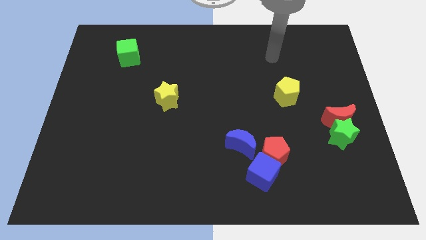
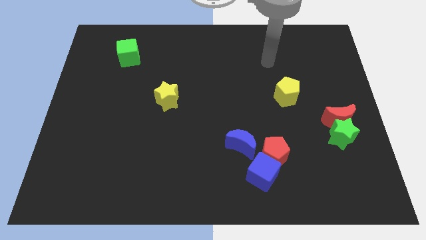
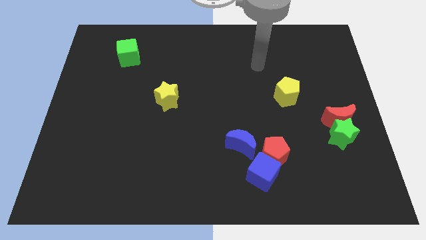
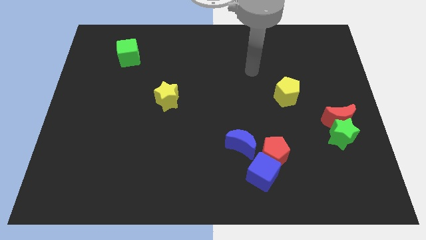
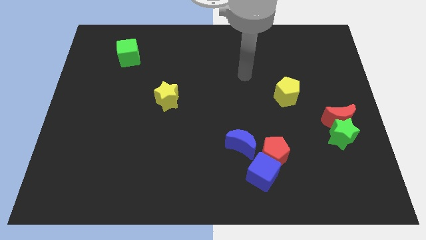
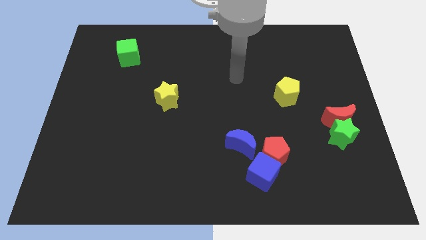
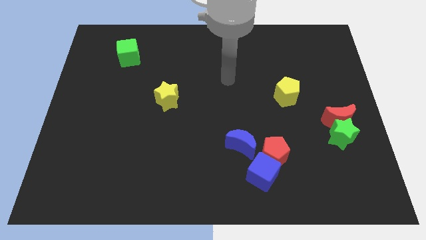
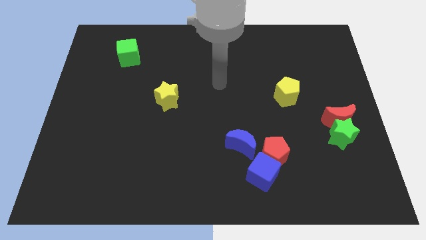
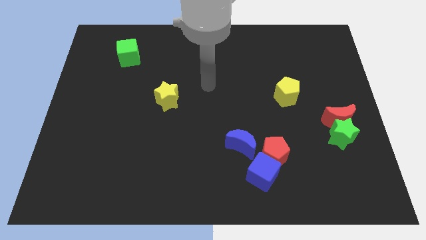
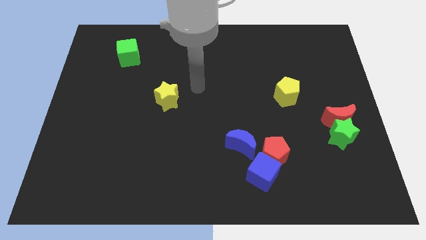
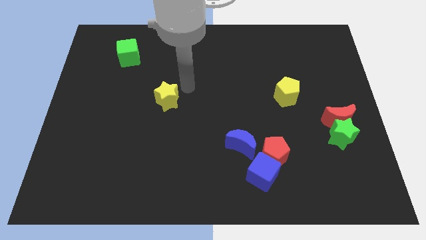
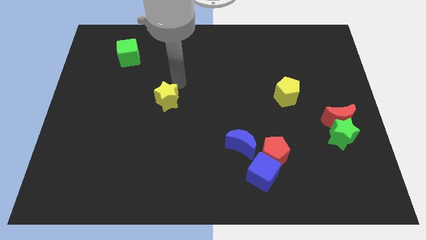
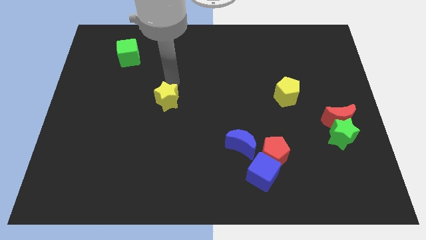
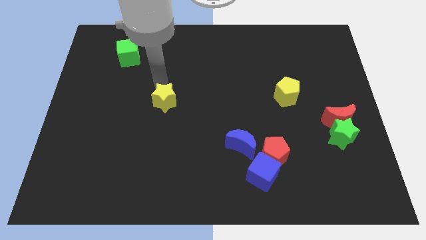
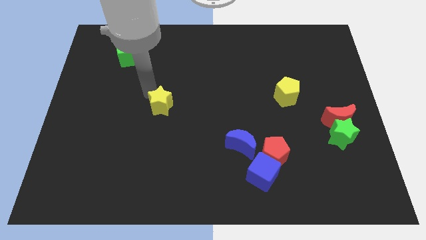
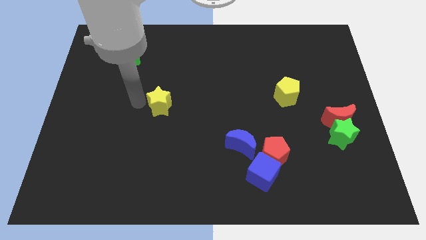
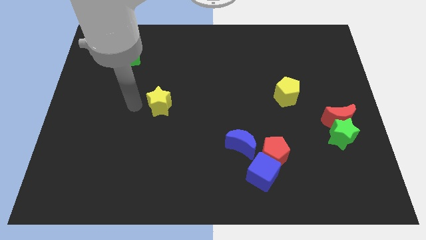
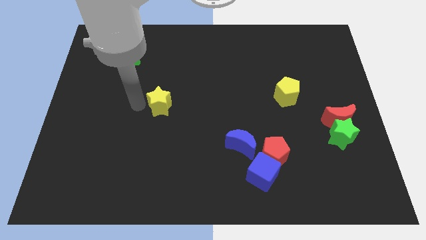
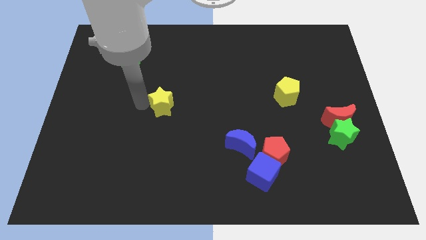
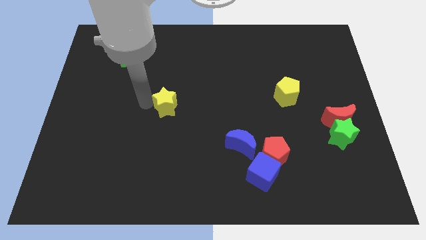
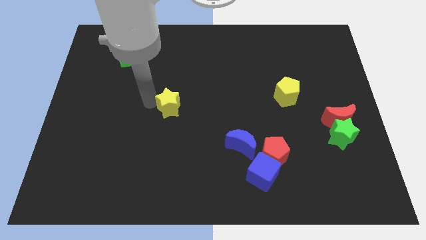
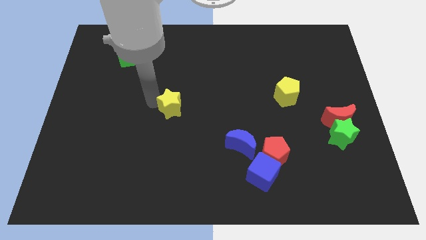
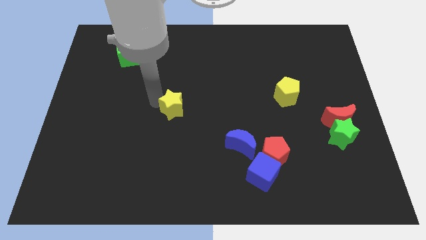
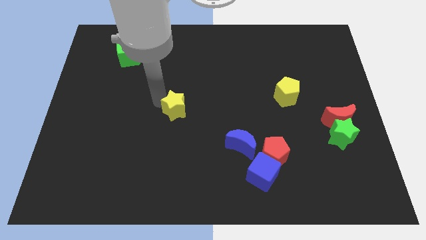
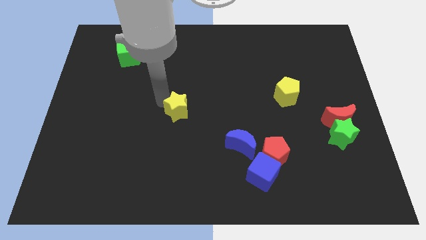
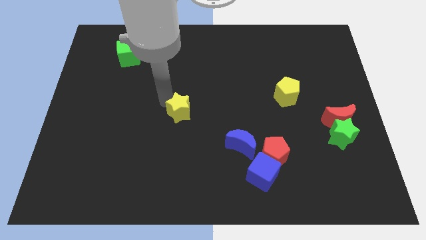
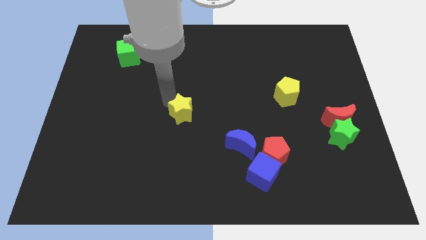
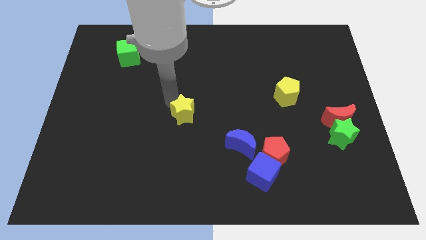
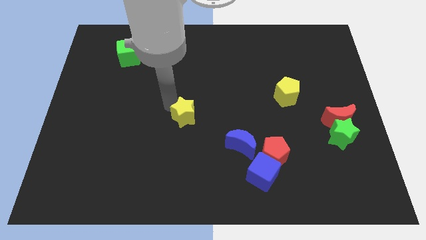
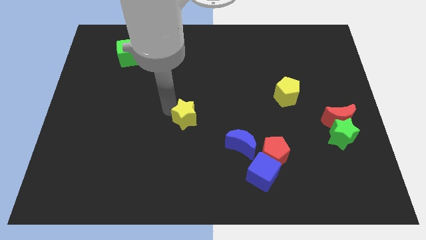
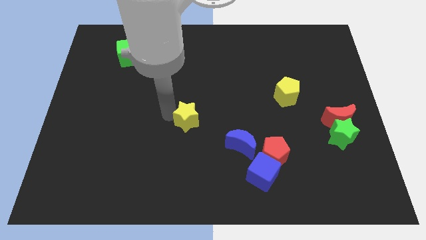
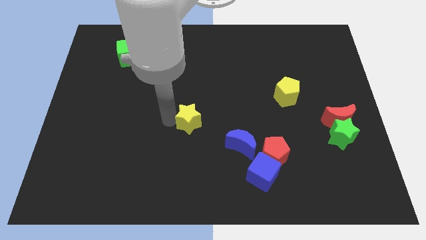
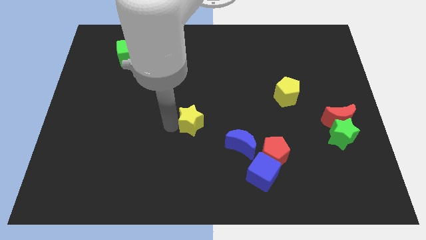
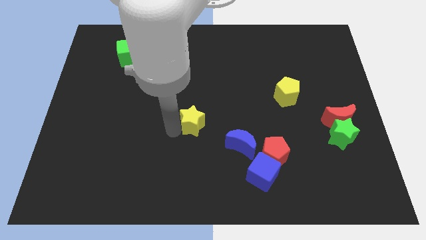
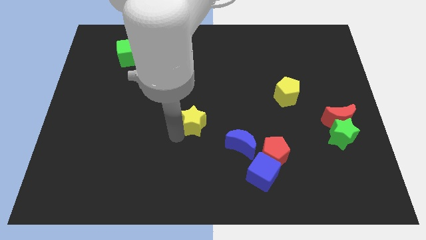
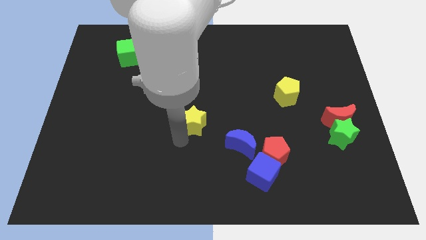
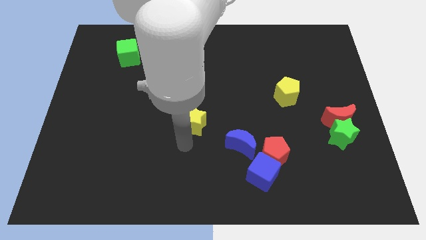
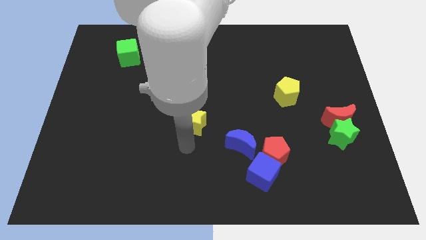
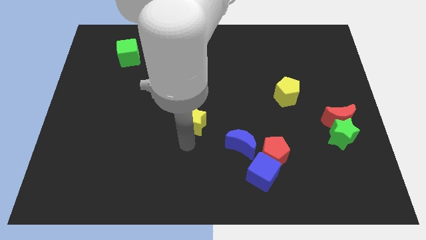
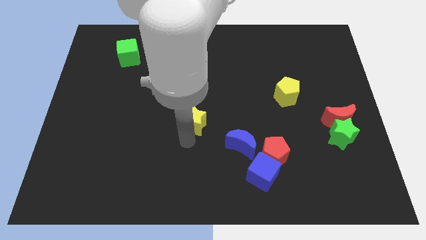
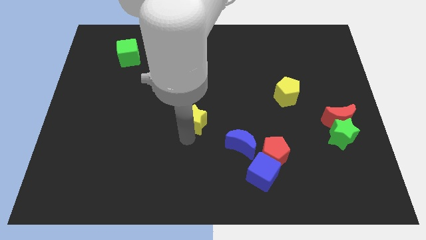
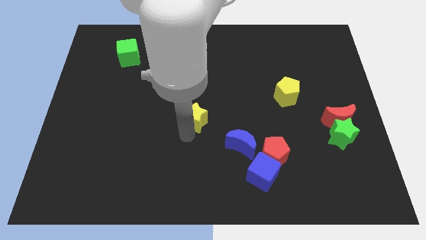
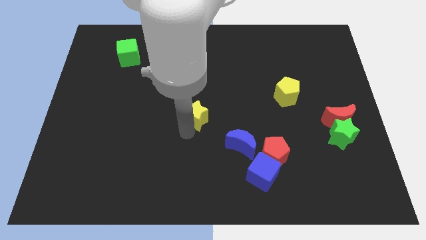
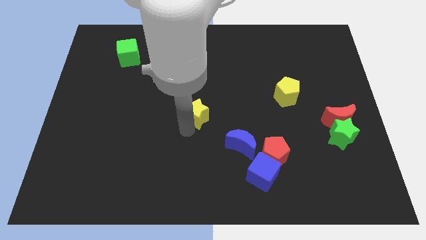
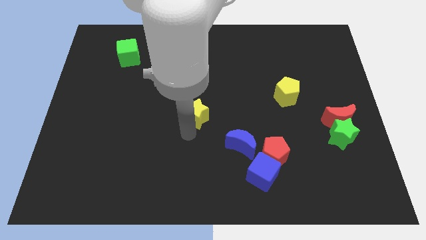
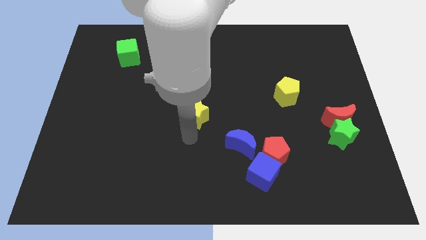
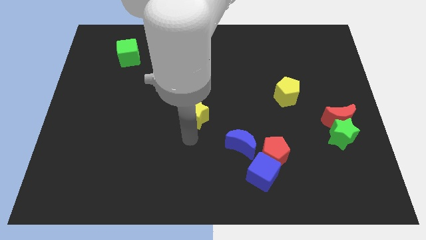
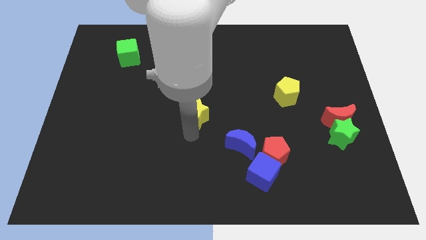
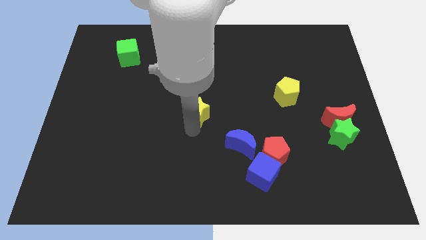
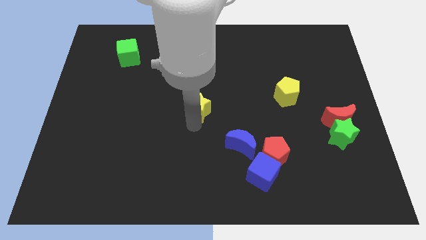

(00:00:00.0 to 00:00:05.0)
move the yellow star a little bit right

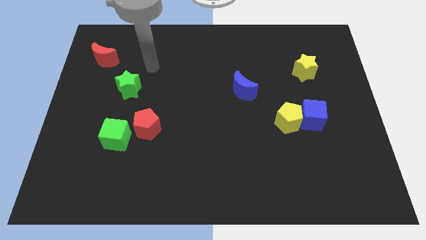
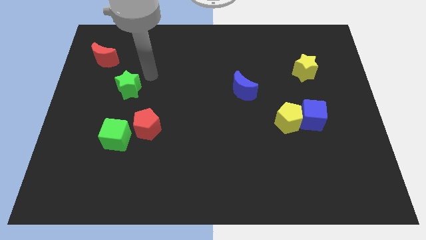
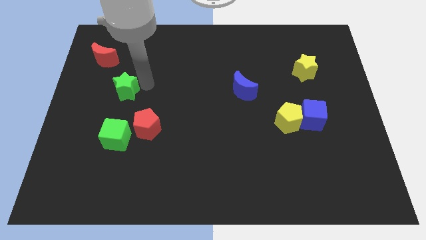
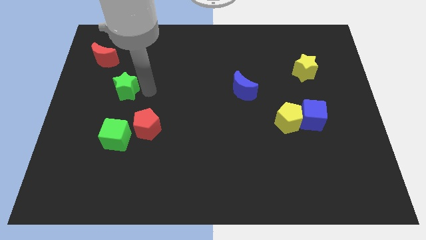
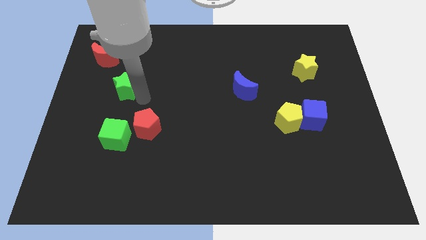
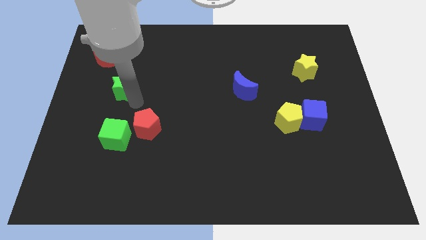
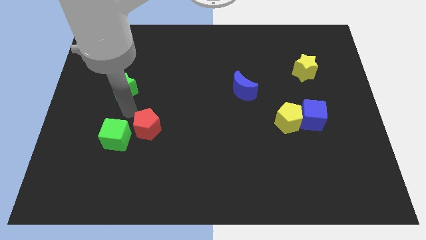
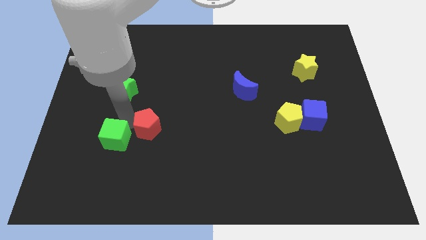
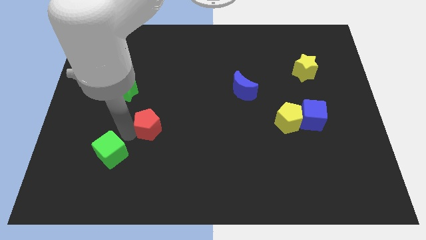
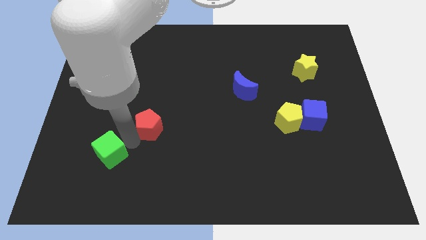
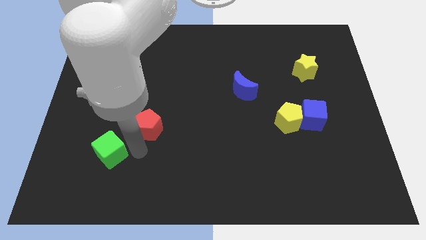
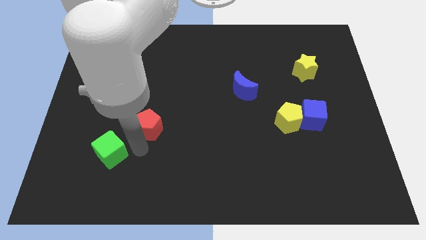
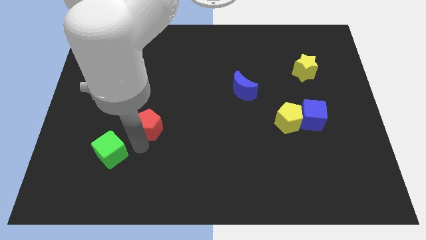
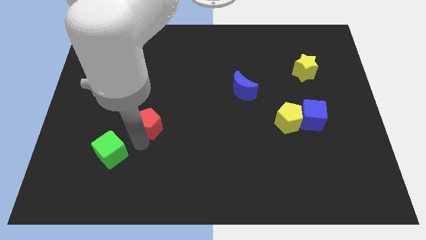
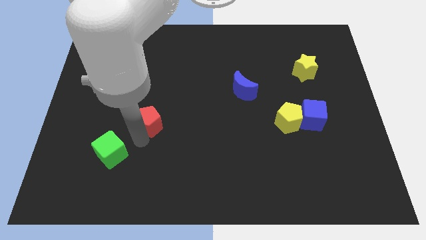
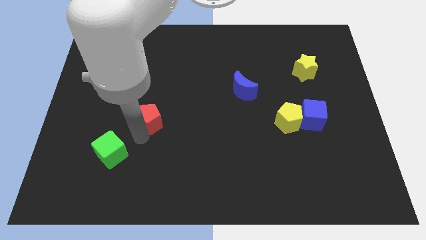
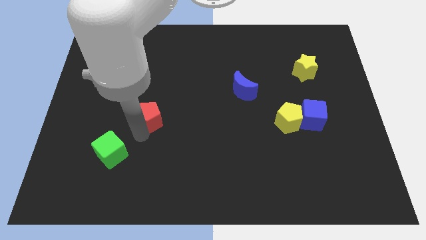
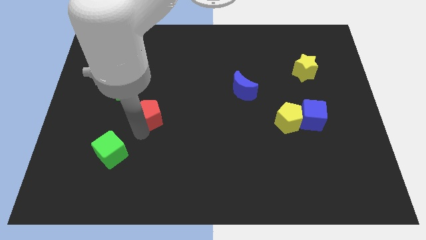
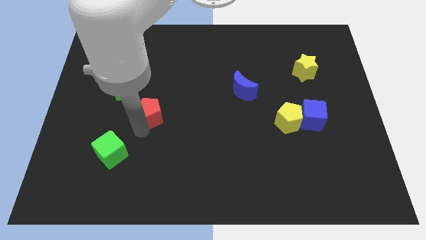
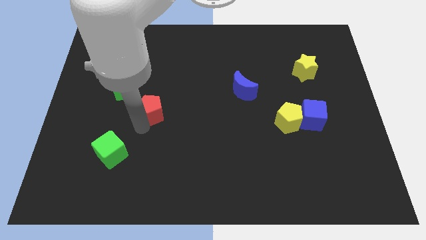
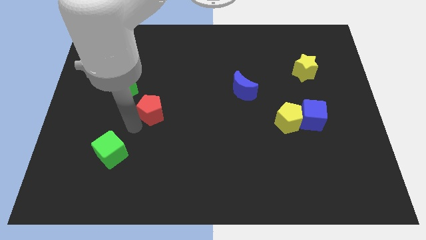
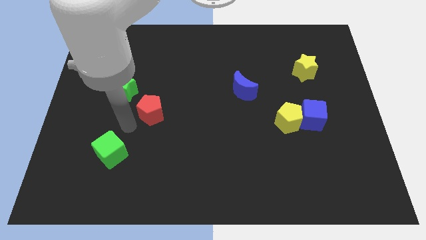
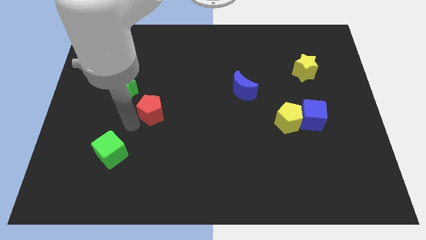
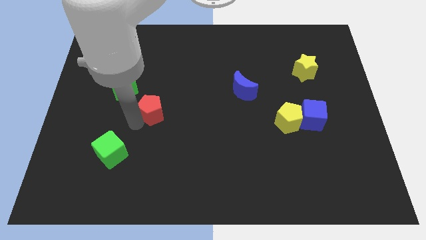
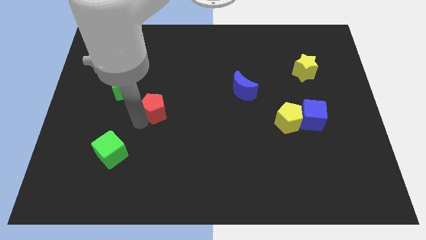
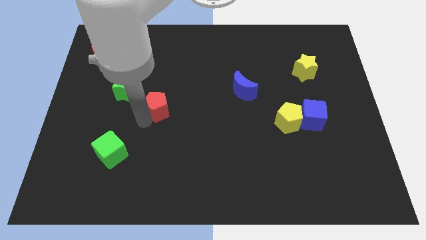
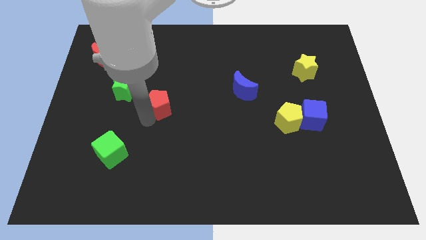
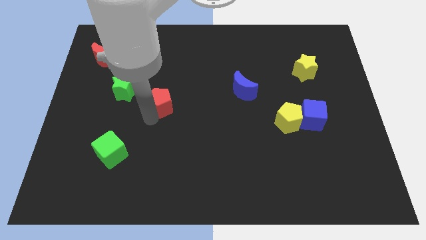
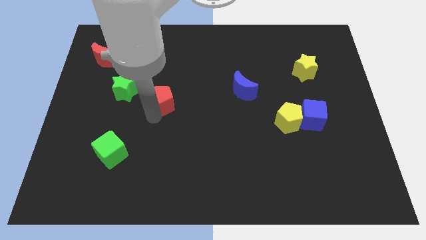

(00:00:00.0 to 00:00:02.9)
move the red pentagon up and to the right diagonally slightly
